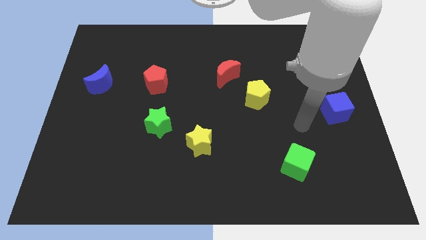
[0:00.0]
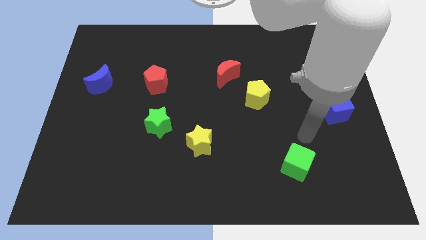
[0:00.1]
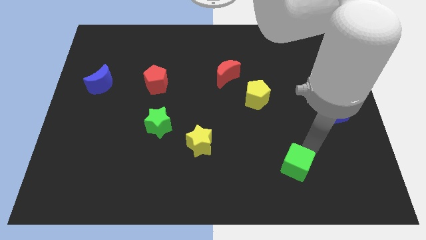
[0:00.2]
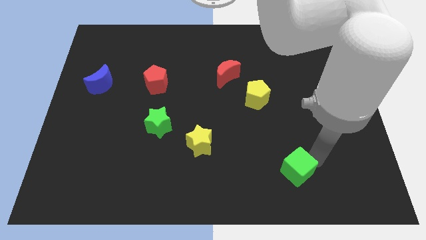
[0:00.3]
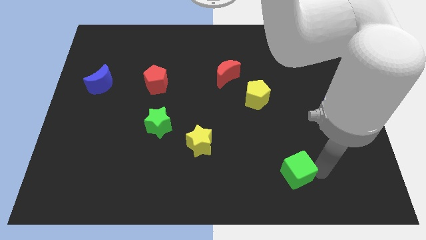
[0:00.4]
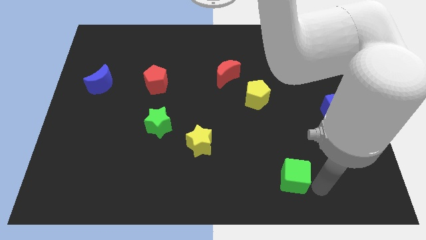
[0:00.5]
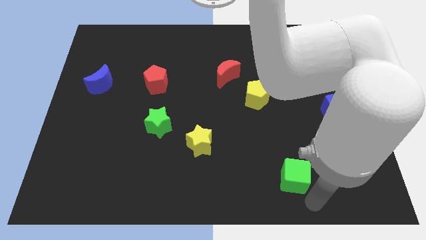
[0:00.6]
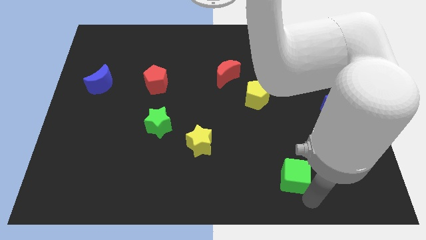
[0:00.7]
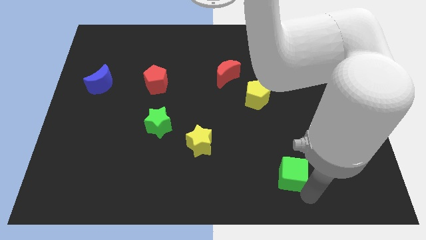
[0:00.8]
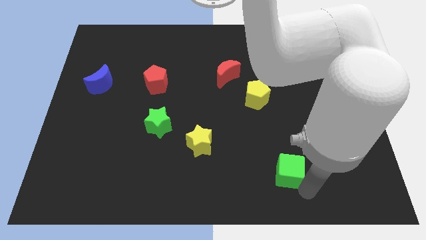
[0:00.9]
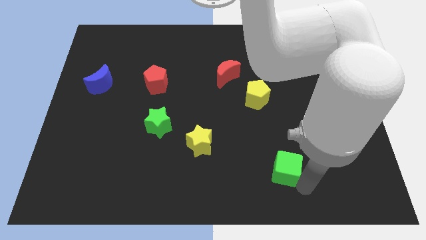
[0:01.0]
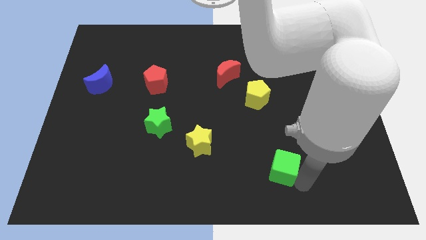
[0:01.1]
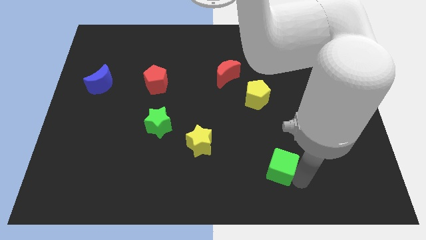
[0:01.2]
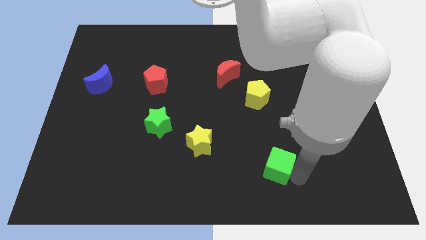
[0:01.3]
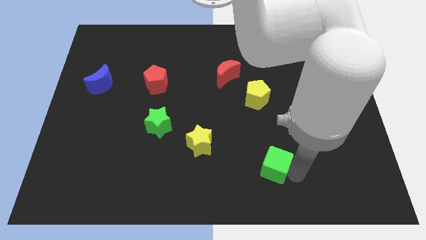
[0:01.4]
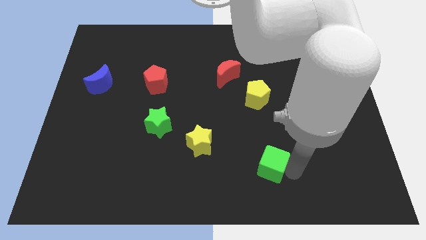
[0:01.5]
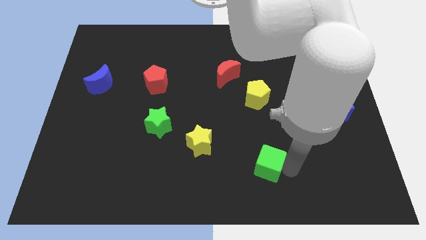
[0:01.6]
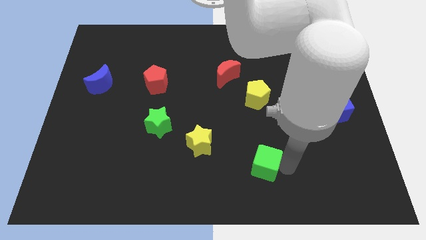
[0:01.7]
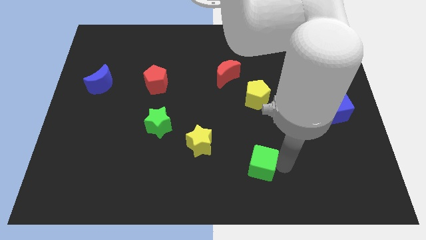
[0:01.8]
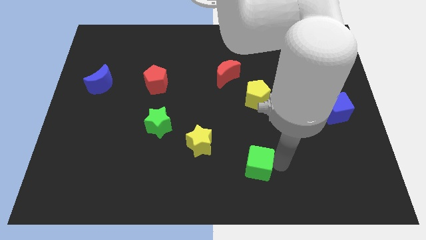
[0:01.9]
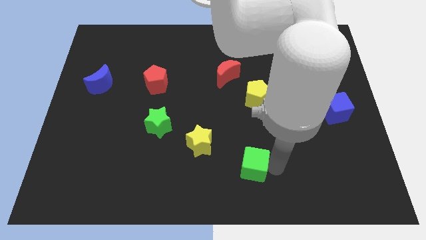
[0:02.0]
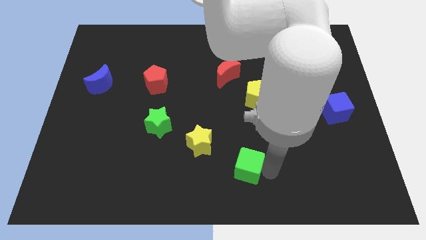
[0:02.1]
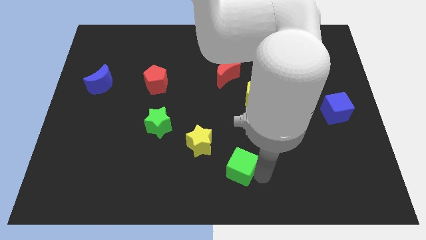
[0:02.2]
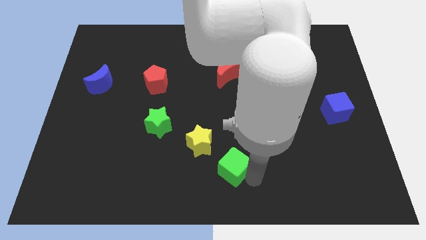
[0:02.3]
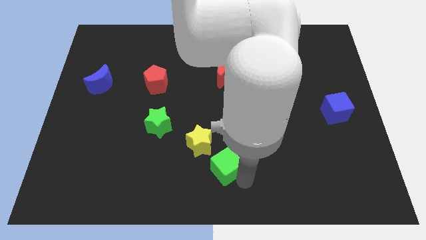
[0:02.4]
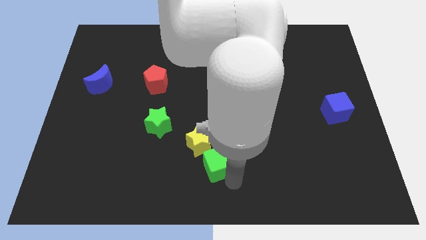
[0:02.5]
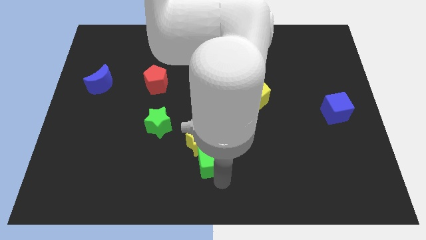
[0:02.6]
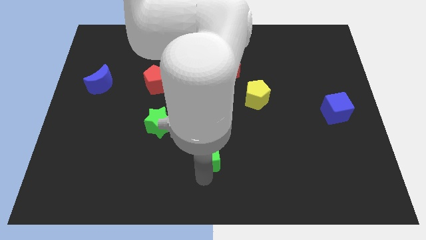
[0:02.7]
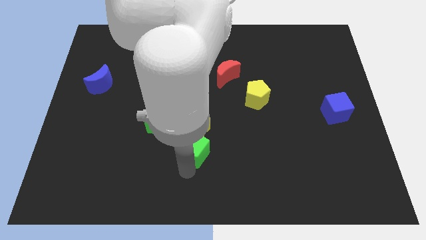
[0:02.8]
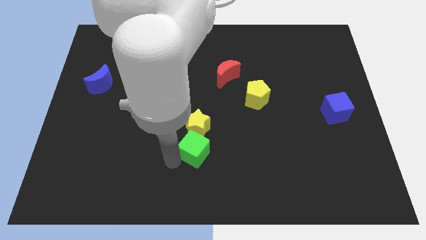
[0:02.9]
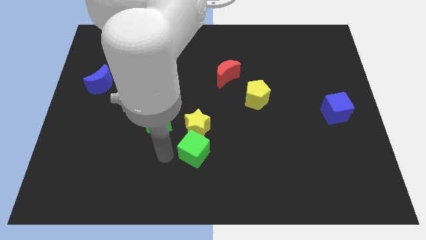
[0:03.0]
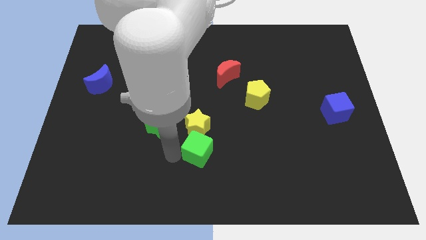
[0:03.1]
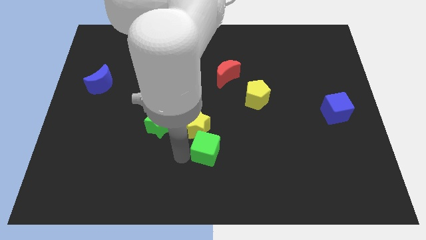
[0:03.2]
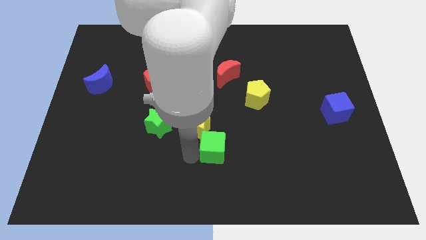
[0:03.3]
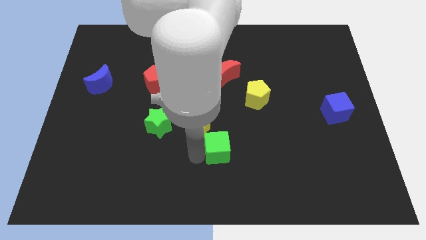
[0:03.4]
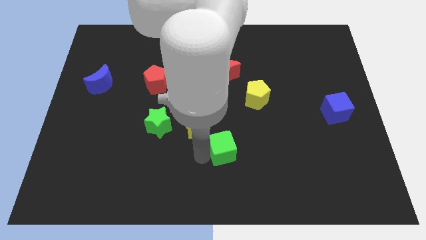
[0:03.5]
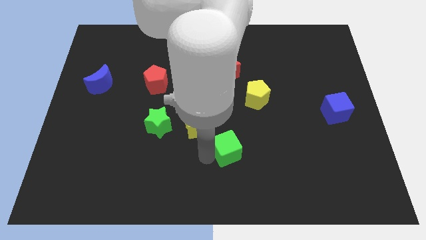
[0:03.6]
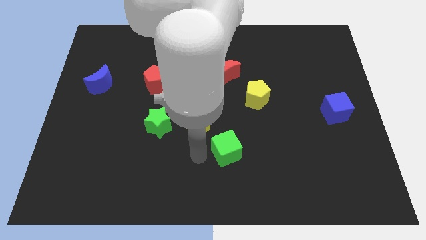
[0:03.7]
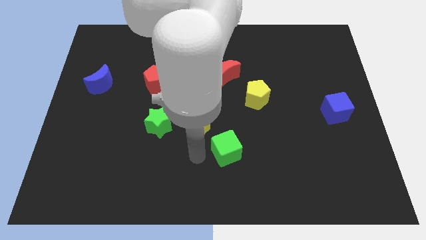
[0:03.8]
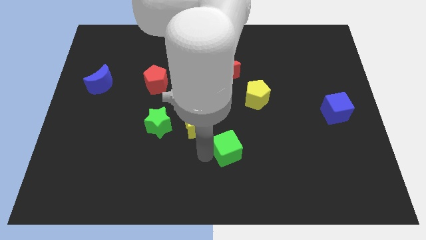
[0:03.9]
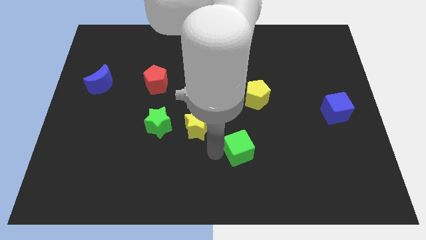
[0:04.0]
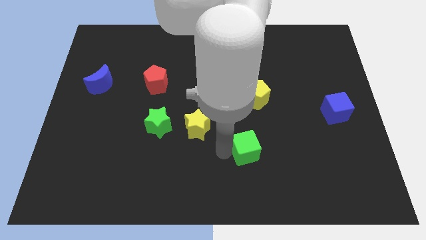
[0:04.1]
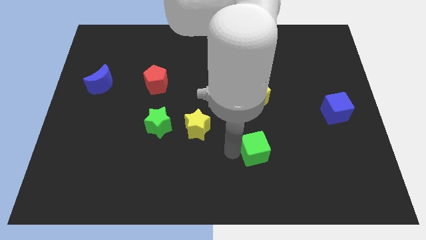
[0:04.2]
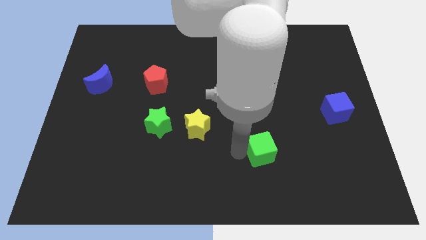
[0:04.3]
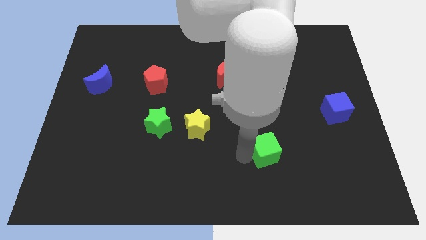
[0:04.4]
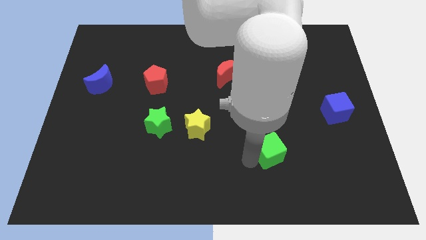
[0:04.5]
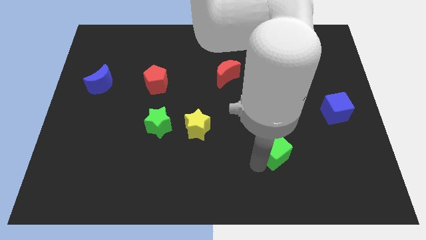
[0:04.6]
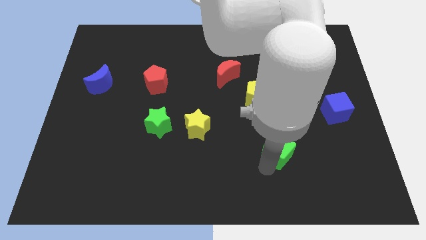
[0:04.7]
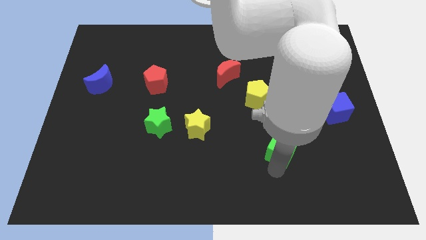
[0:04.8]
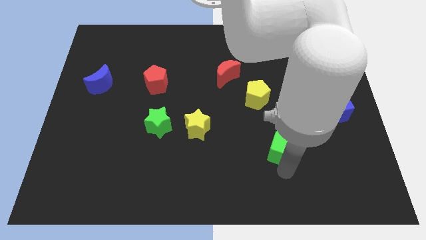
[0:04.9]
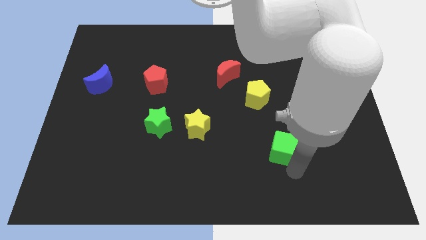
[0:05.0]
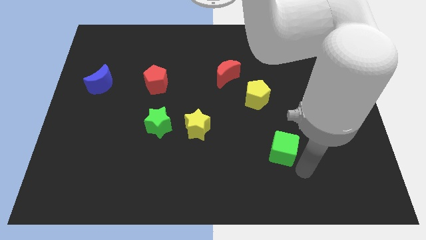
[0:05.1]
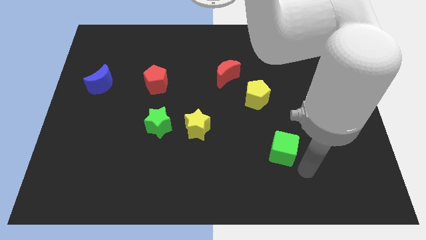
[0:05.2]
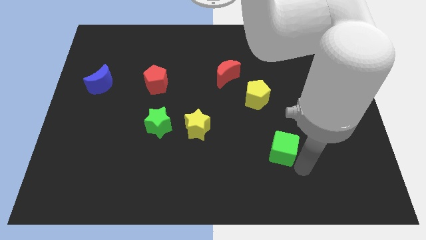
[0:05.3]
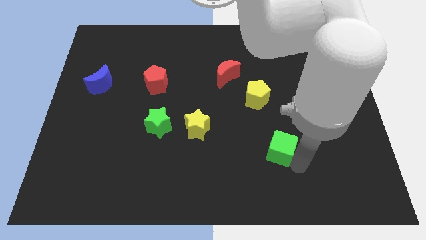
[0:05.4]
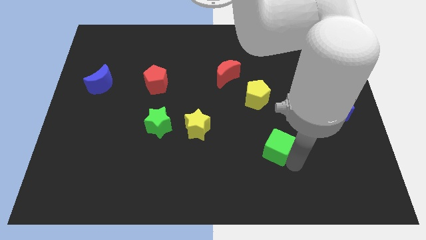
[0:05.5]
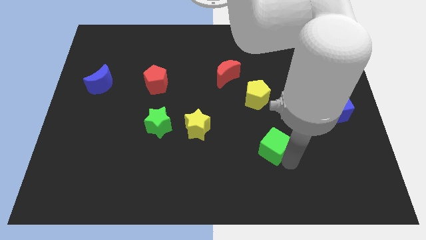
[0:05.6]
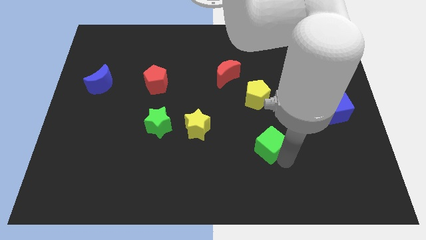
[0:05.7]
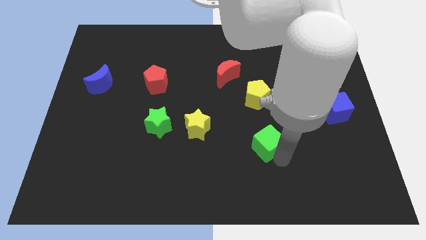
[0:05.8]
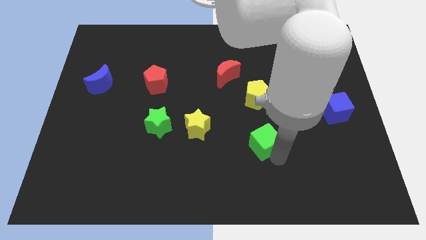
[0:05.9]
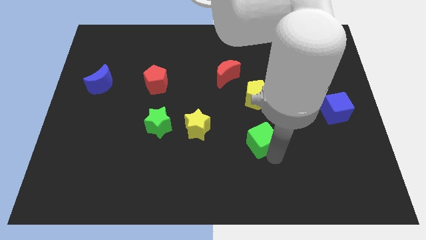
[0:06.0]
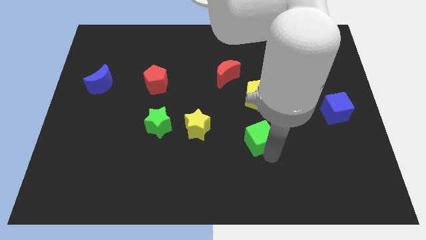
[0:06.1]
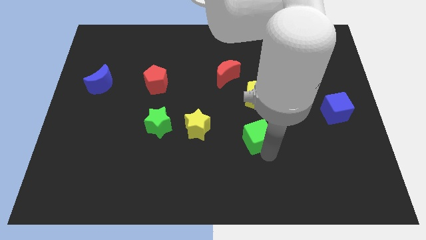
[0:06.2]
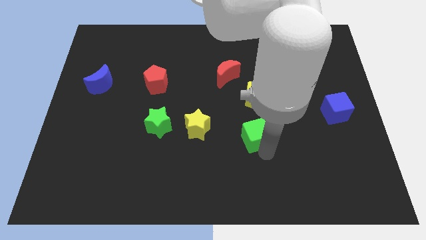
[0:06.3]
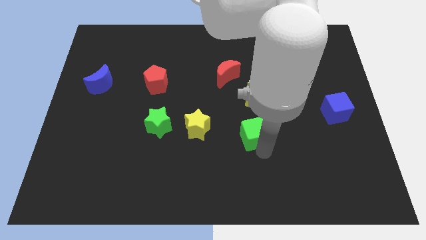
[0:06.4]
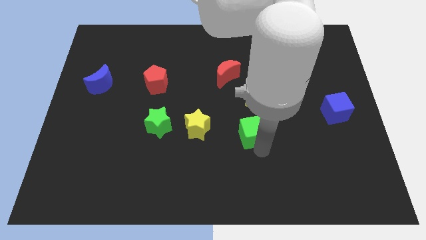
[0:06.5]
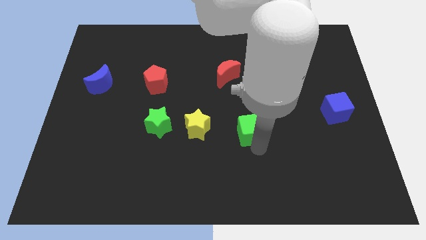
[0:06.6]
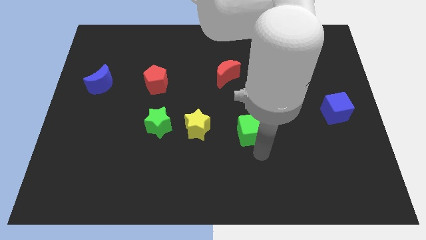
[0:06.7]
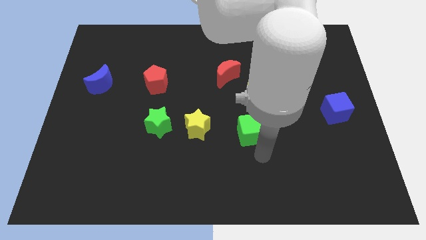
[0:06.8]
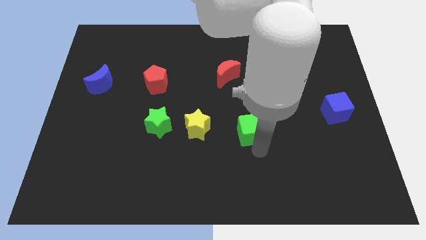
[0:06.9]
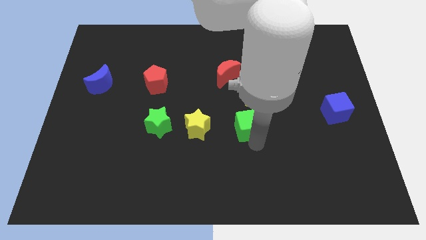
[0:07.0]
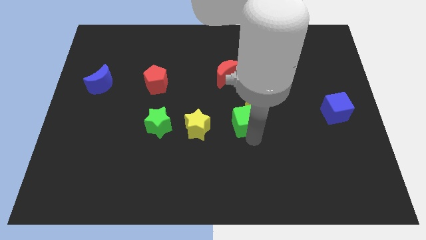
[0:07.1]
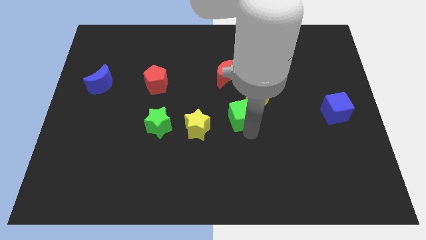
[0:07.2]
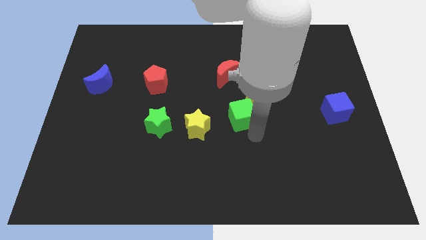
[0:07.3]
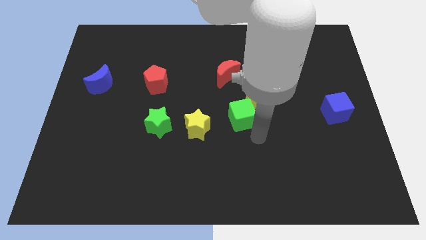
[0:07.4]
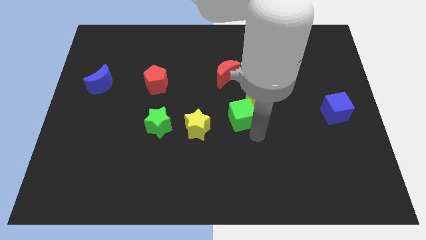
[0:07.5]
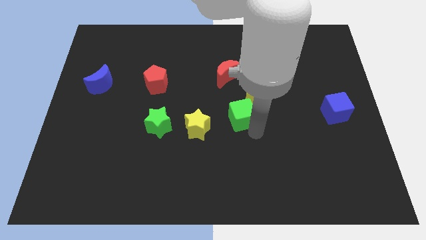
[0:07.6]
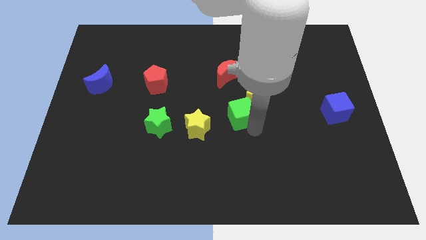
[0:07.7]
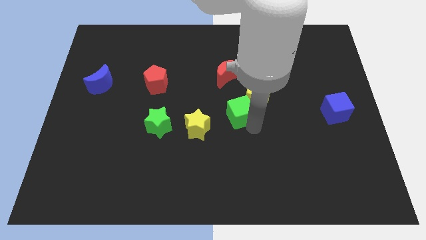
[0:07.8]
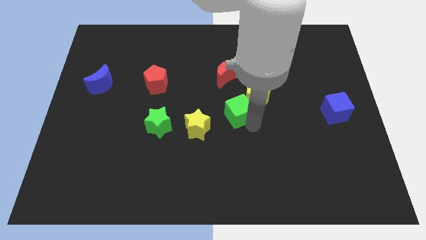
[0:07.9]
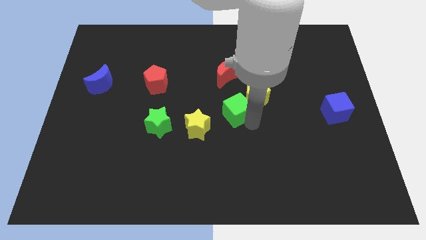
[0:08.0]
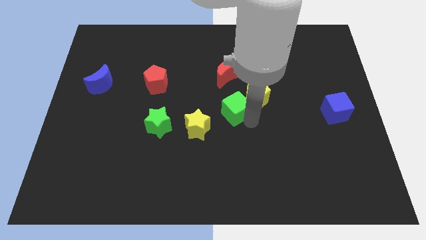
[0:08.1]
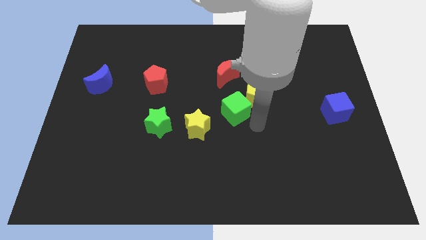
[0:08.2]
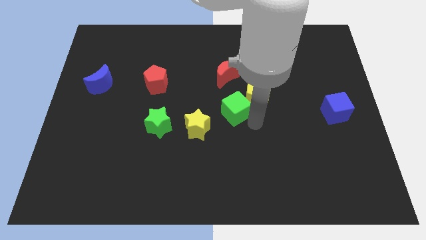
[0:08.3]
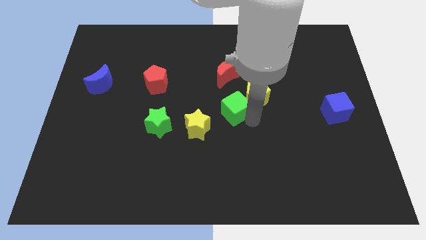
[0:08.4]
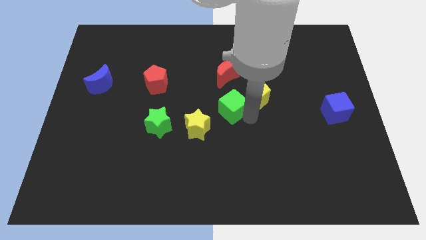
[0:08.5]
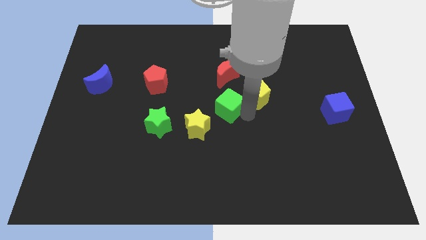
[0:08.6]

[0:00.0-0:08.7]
move the green cube diagonally up and to the left
